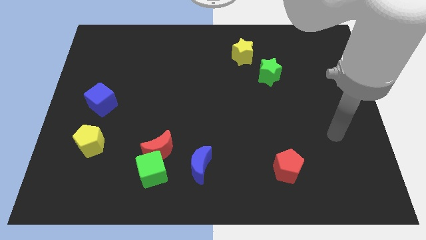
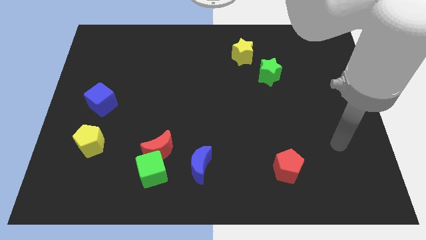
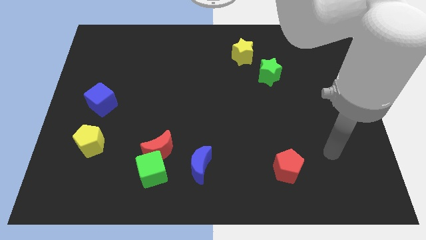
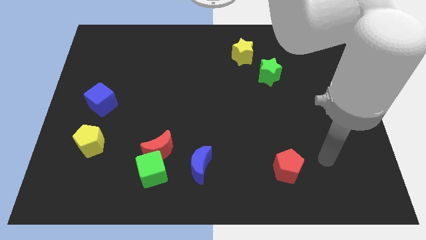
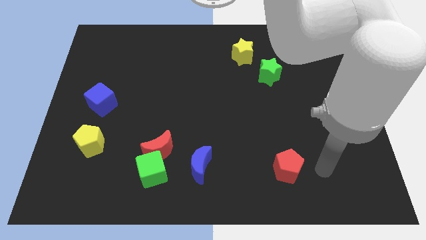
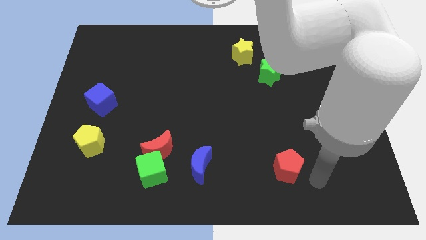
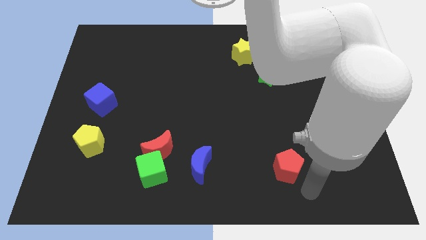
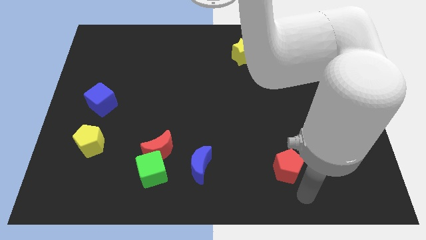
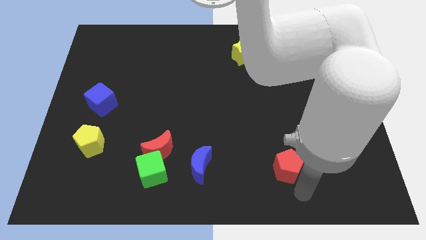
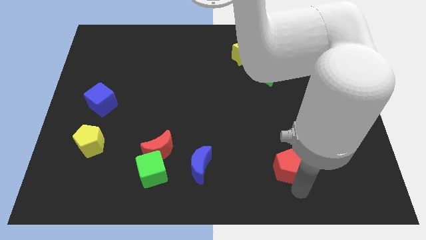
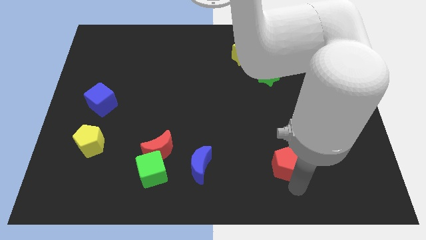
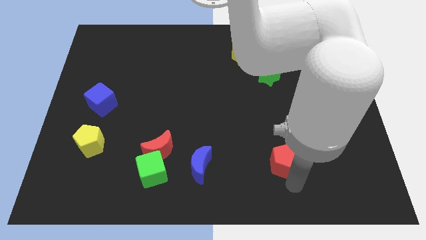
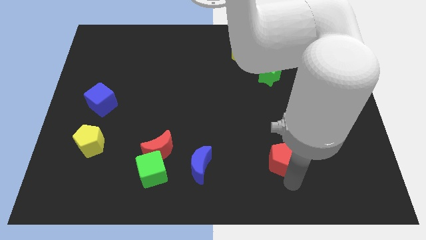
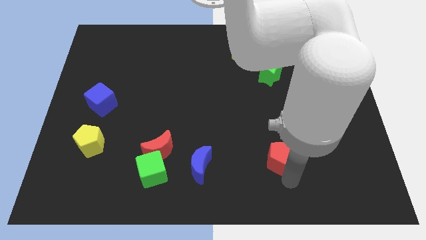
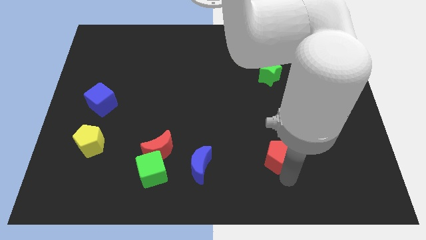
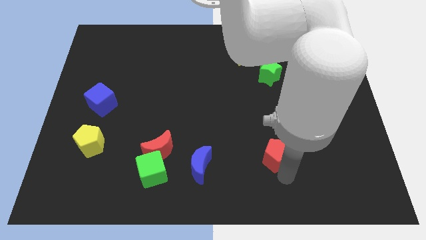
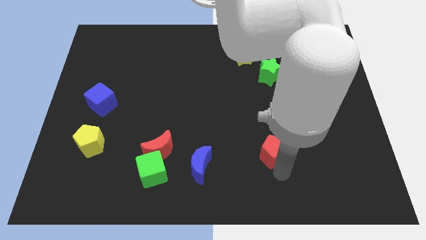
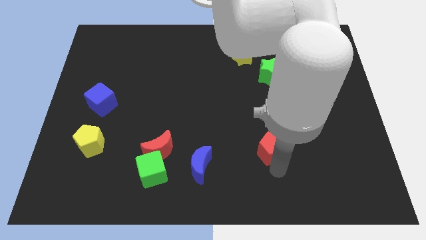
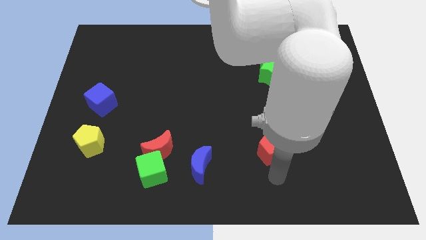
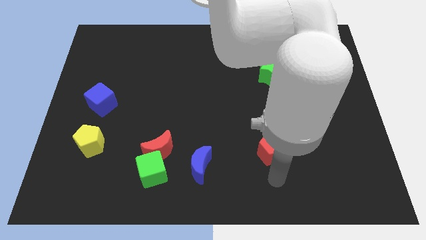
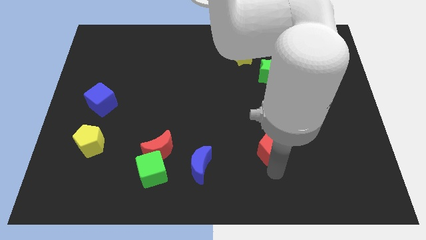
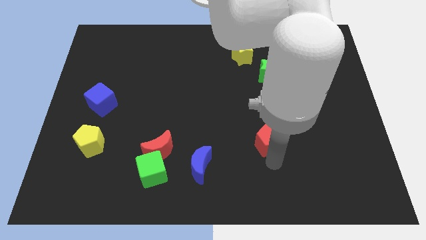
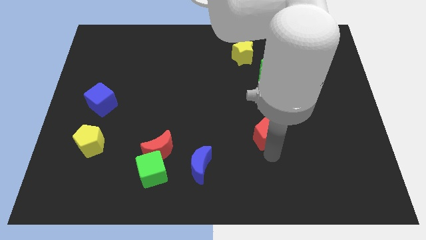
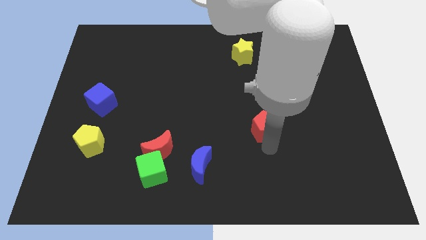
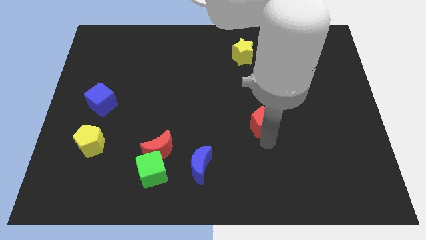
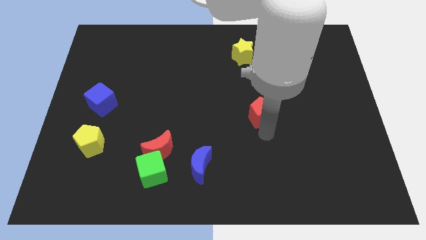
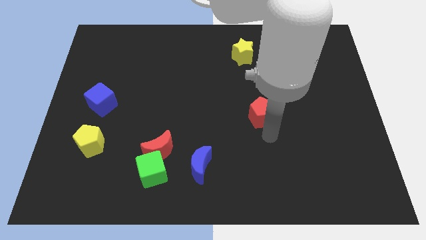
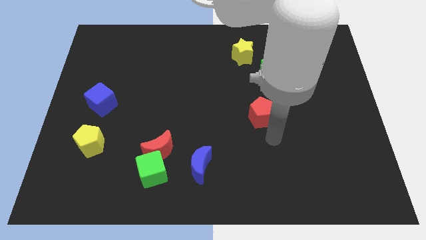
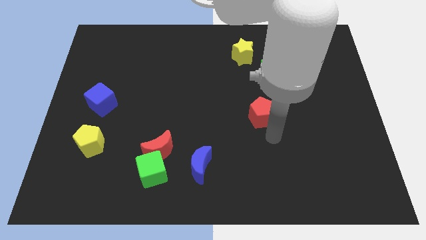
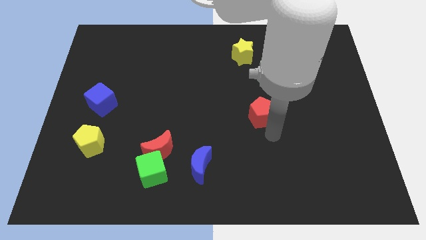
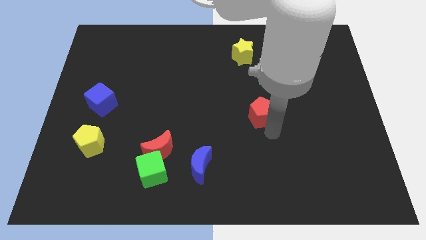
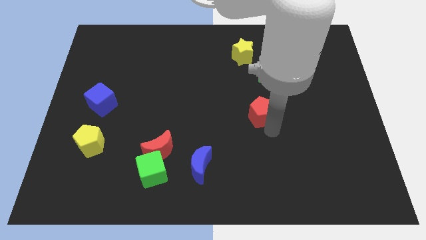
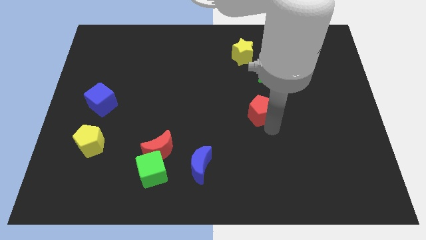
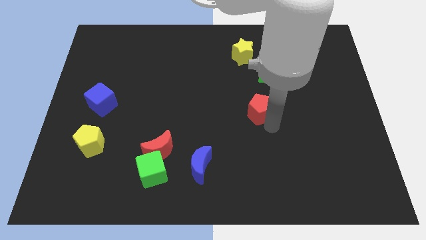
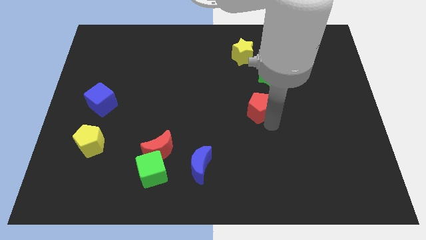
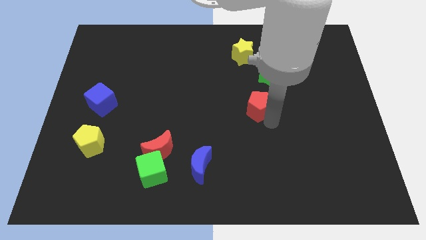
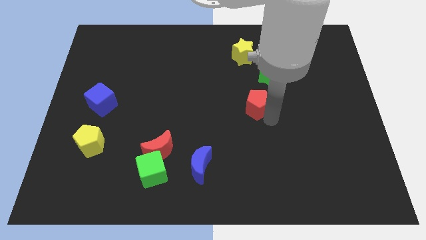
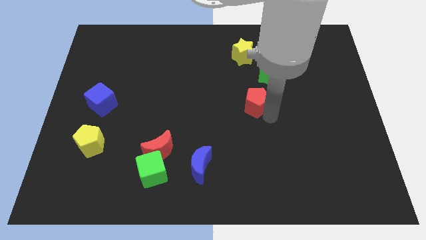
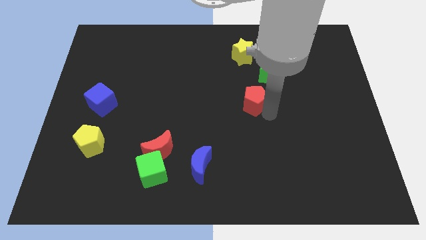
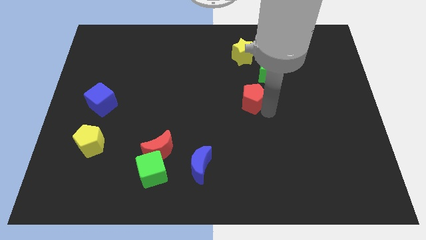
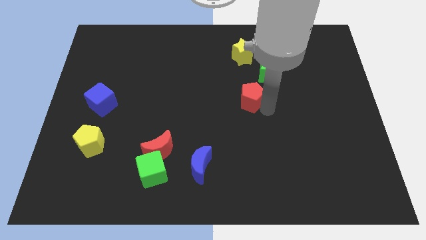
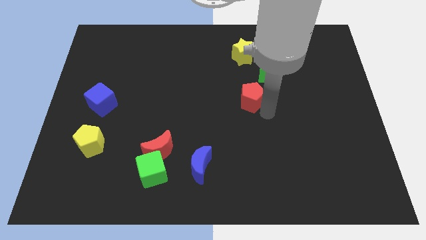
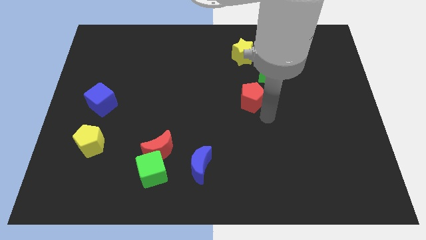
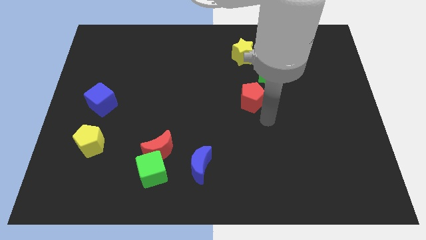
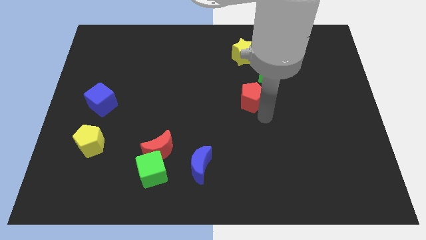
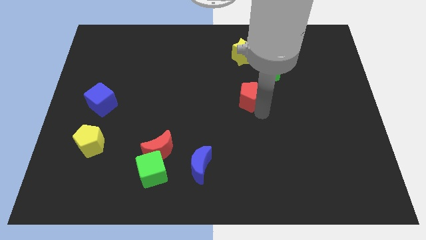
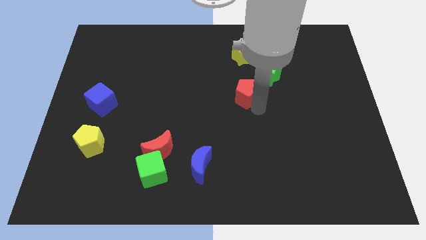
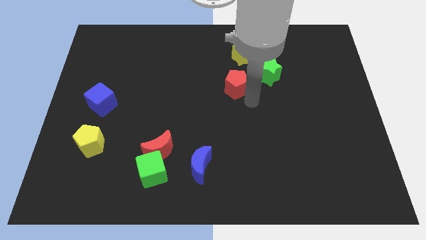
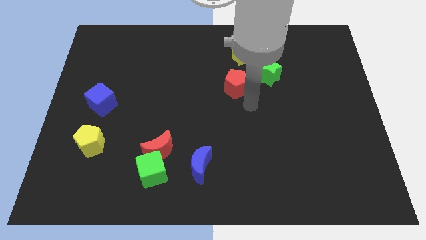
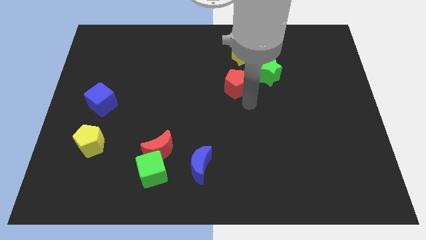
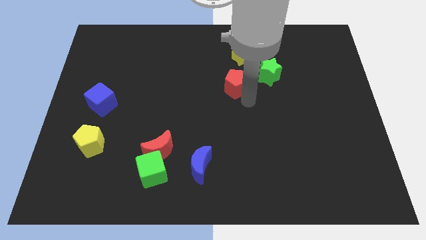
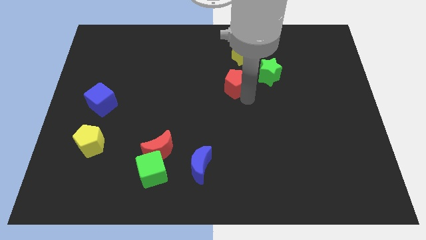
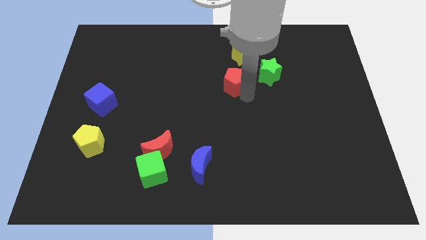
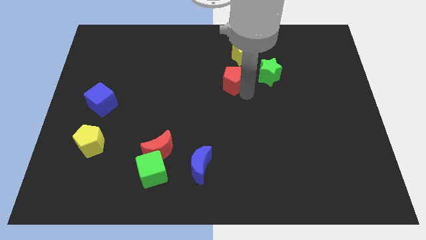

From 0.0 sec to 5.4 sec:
put the red pentagon to the bottom left of the yellow star

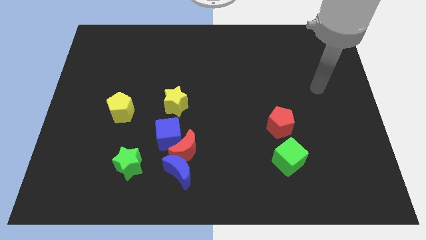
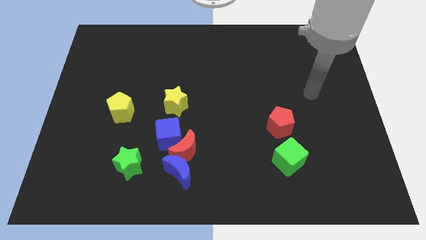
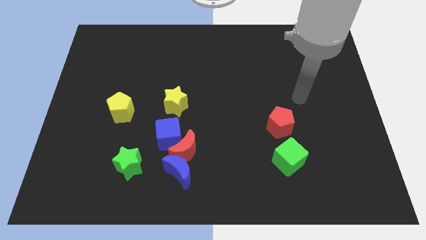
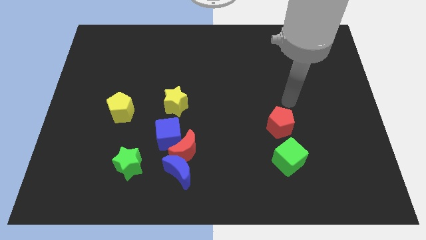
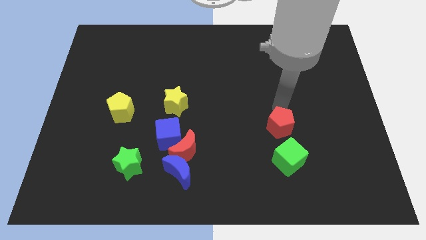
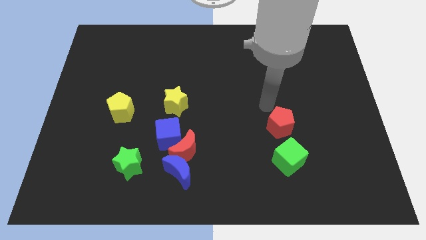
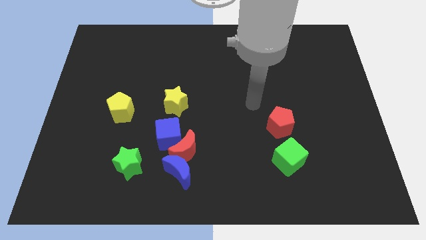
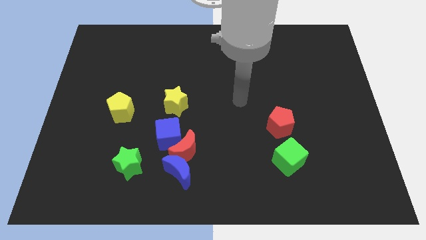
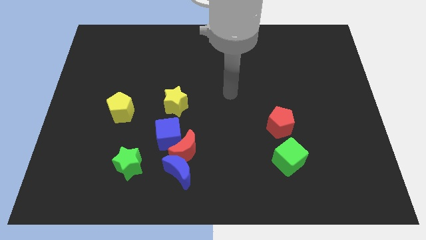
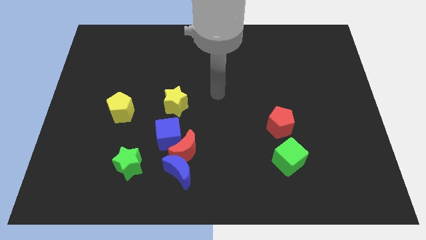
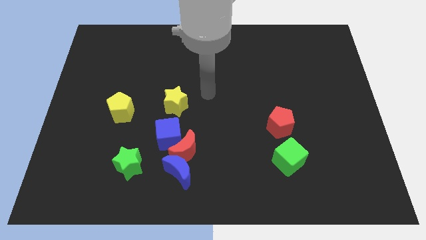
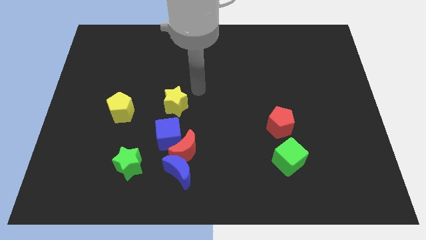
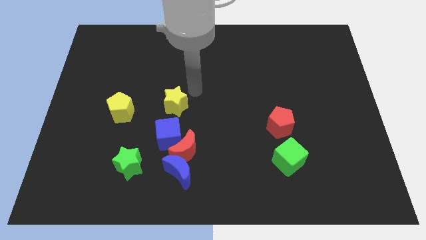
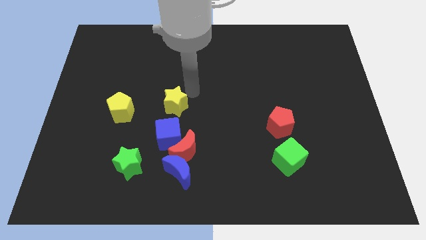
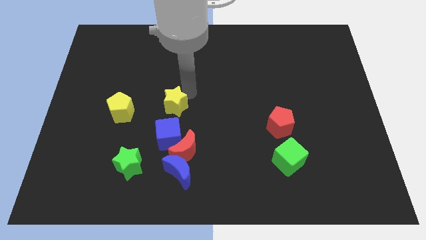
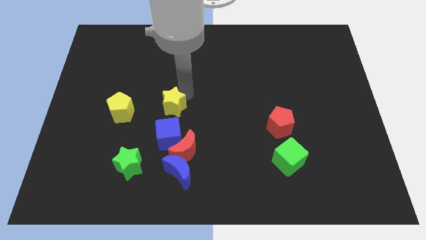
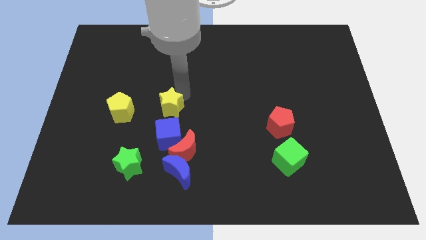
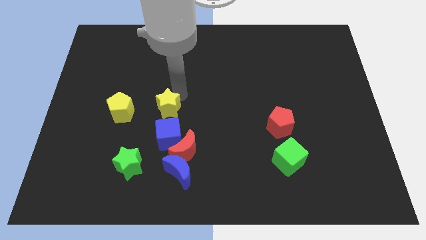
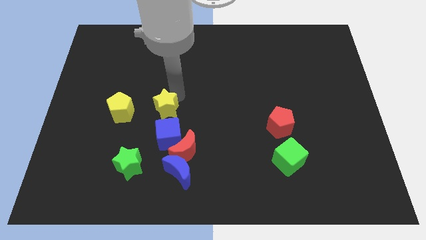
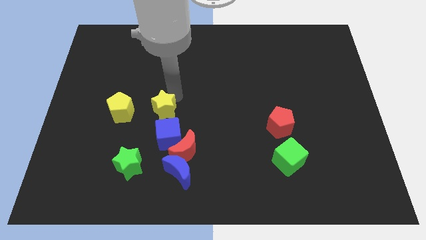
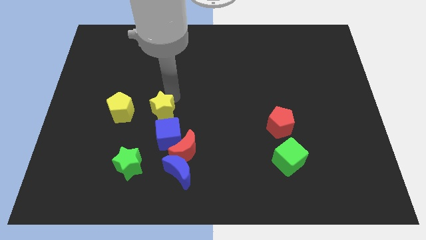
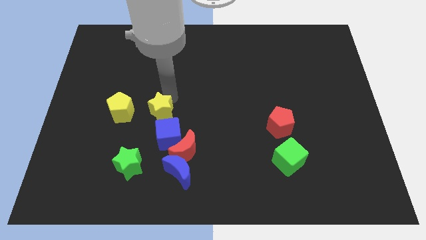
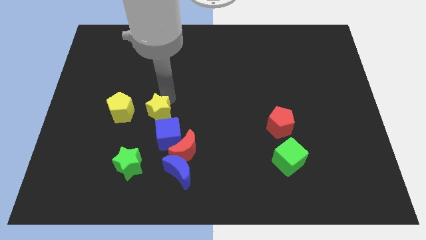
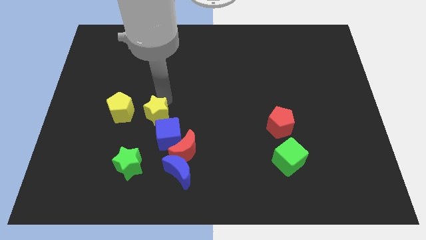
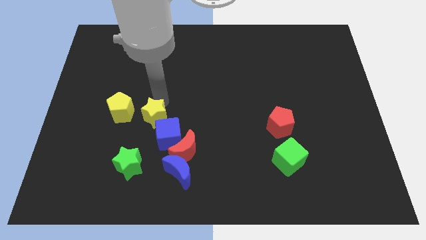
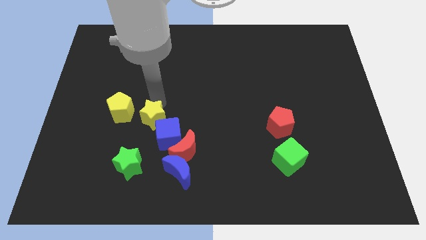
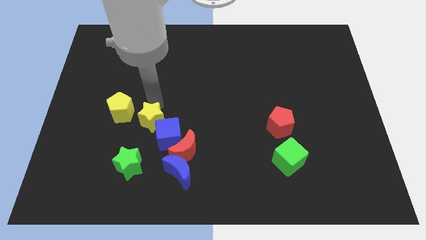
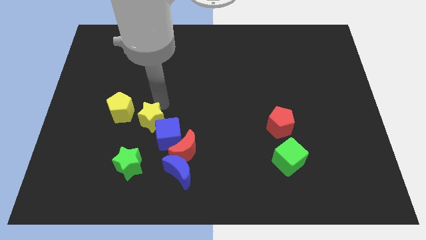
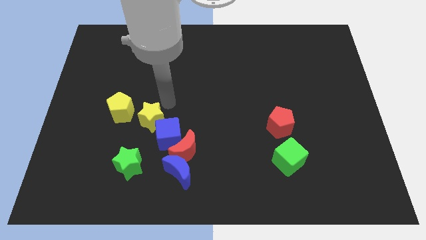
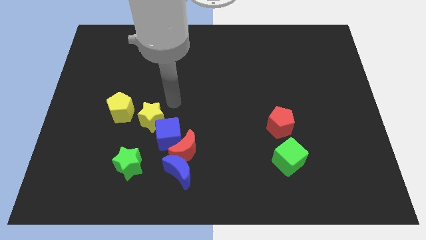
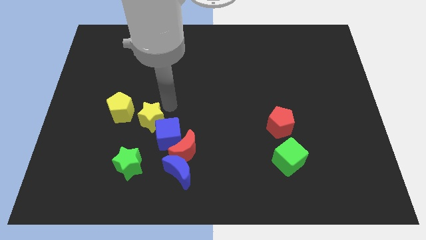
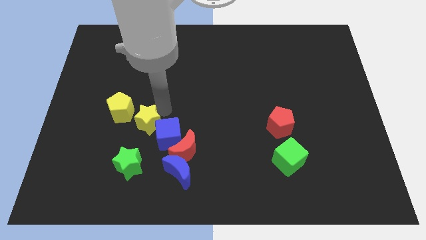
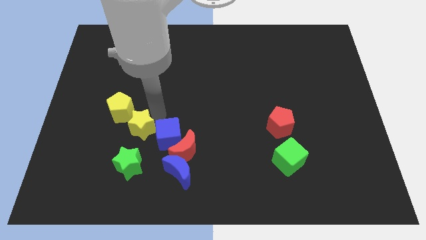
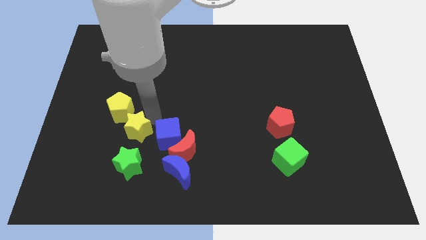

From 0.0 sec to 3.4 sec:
push the yellow star below the yellow pentagon
